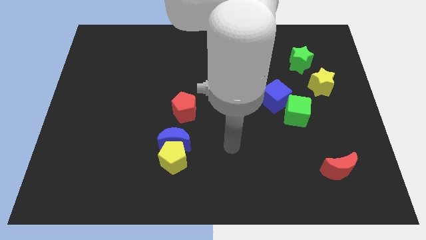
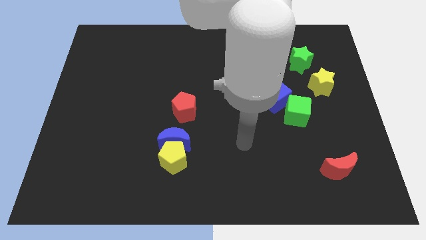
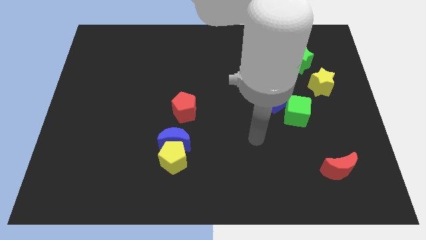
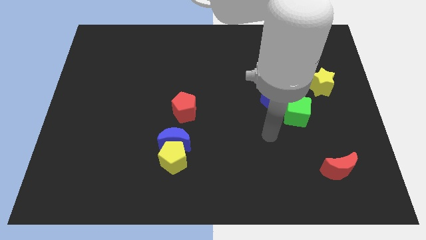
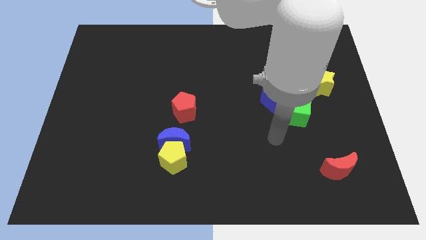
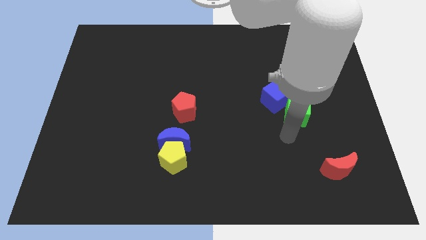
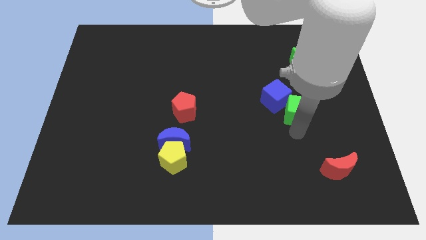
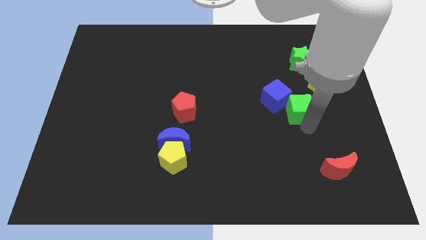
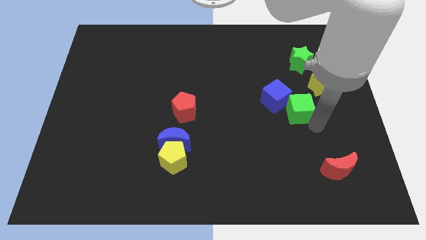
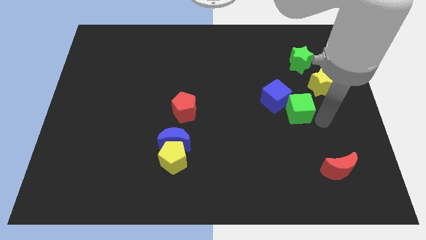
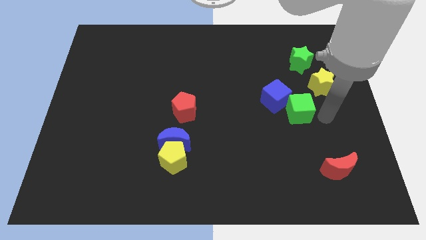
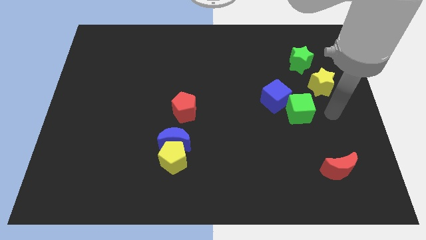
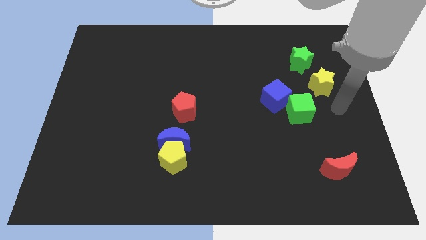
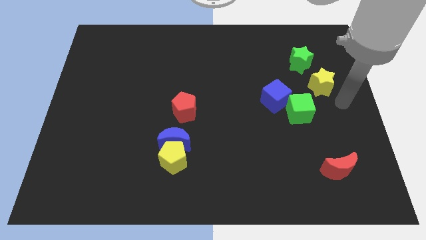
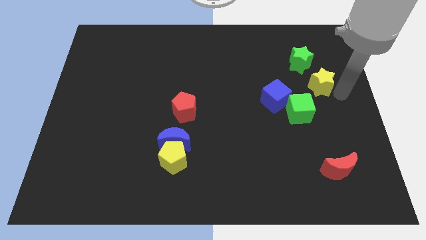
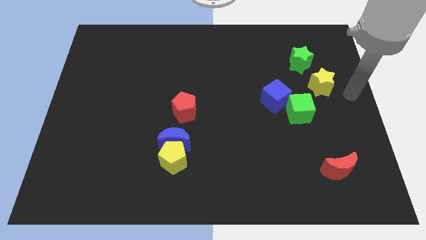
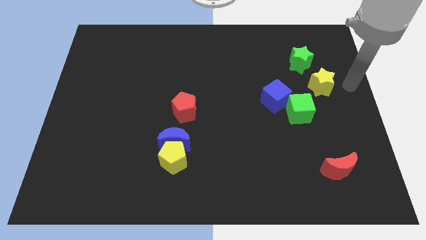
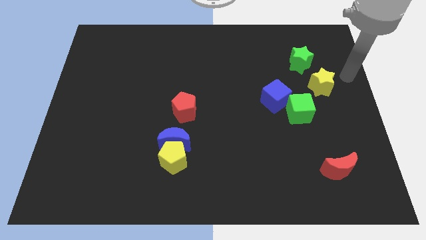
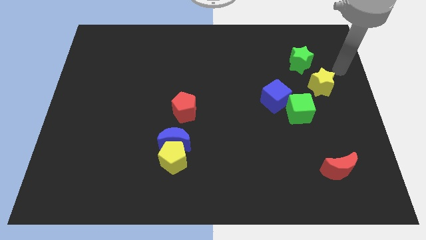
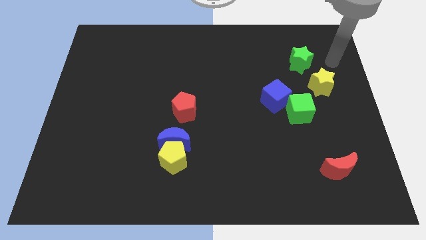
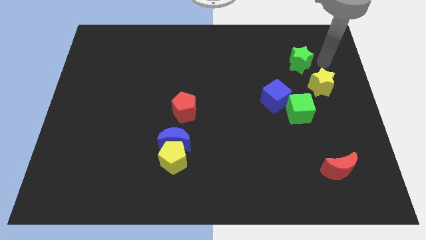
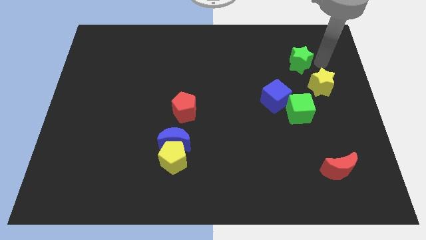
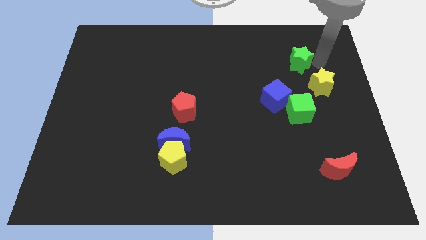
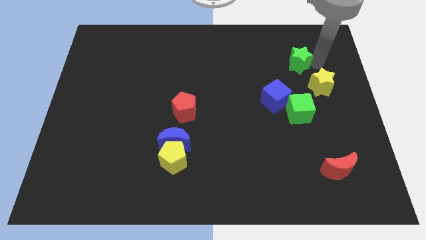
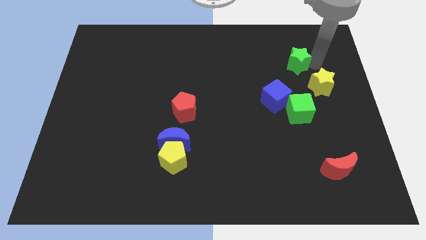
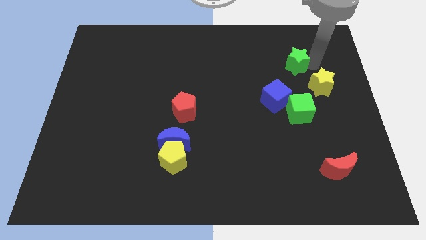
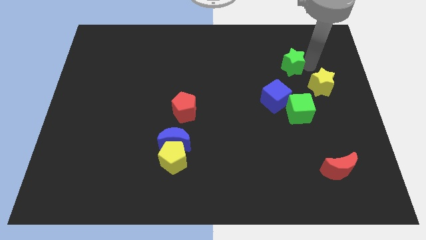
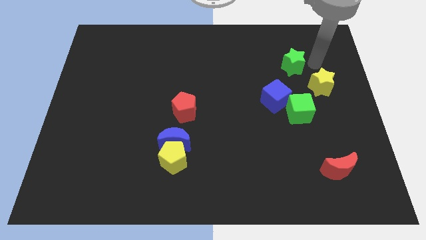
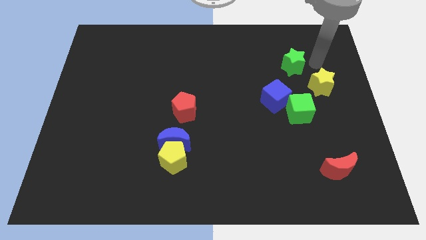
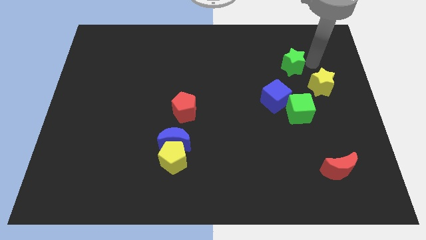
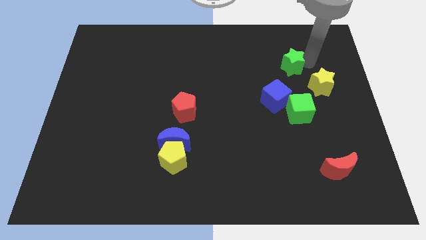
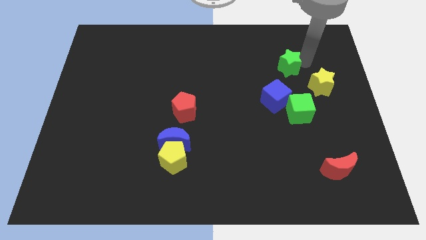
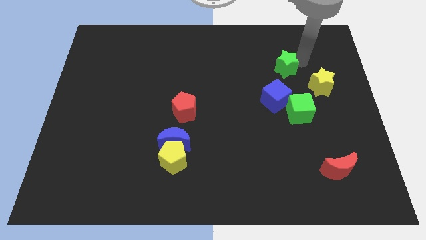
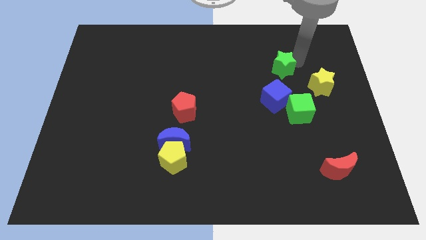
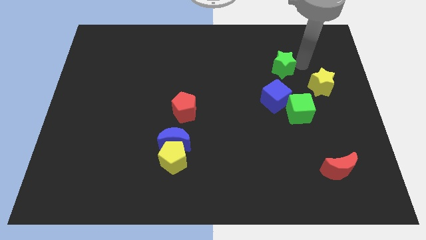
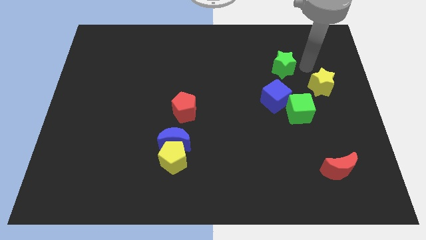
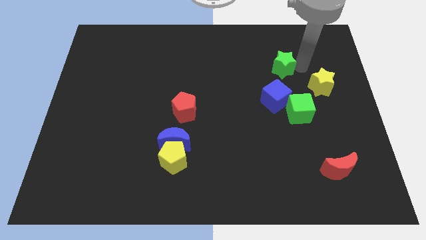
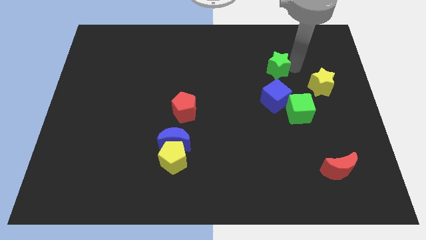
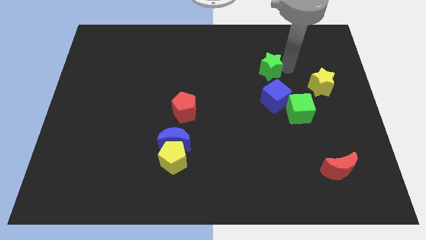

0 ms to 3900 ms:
push the green star left somewhat

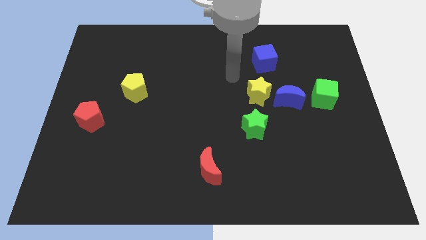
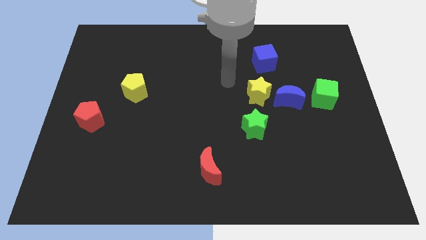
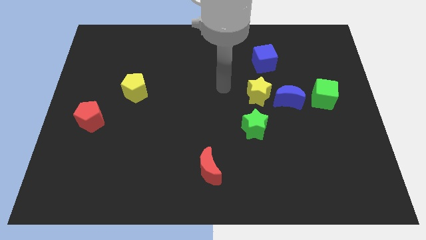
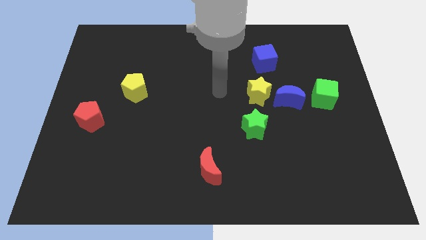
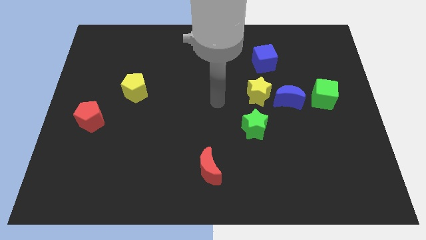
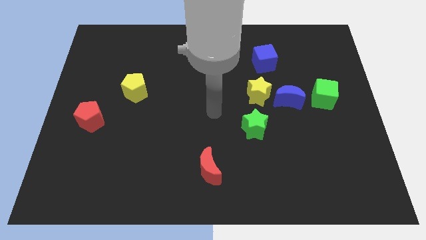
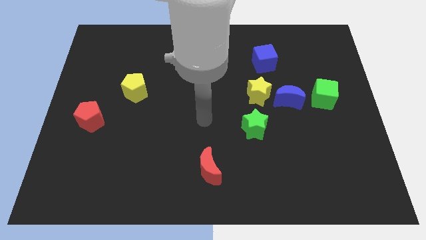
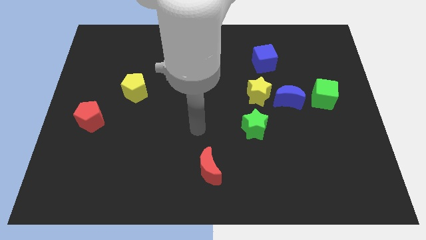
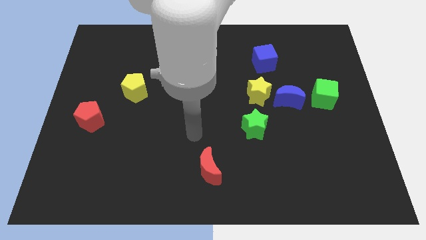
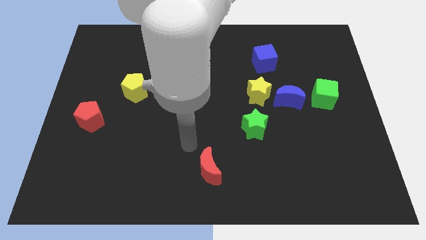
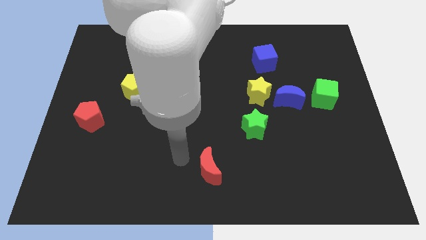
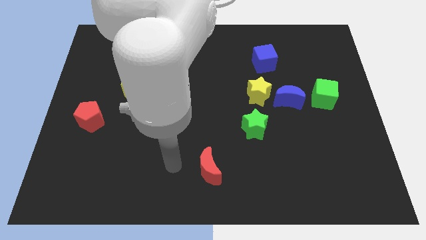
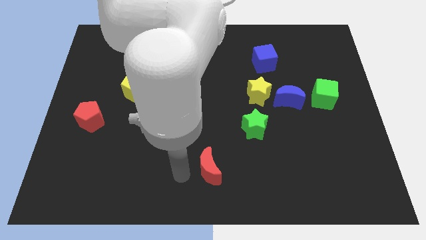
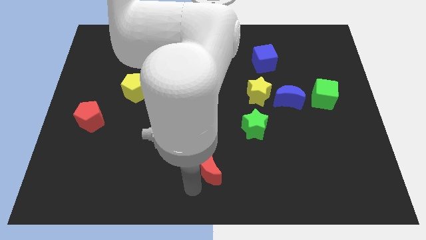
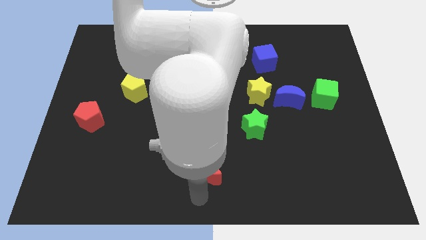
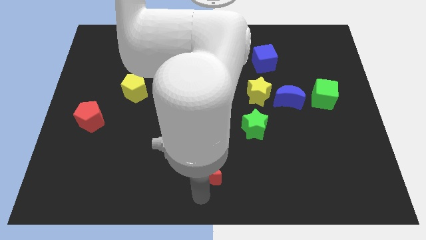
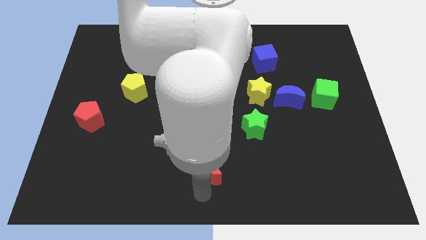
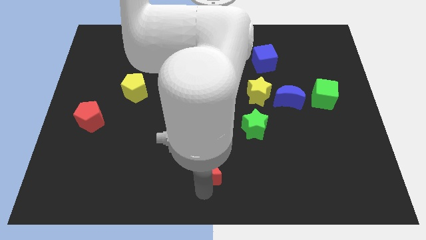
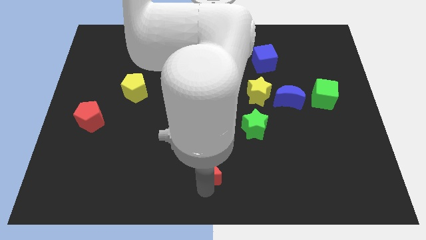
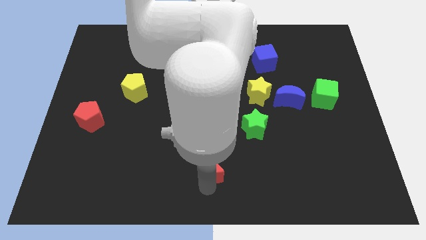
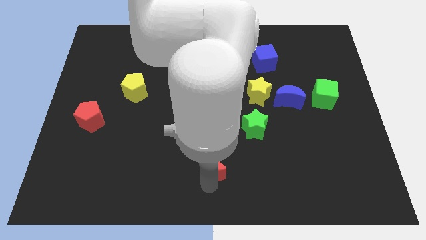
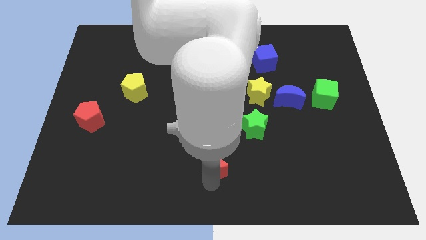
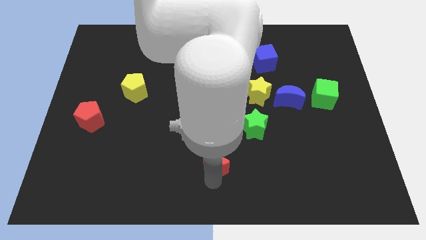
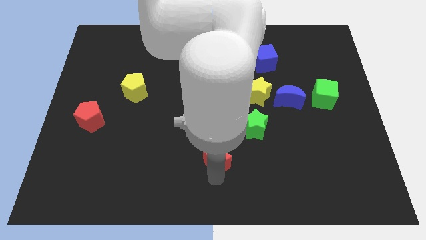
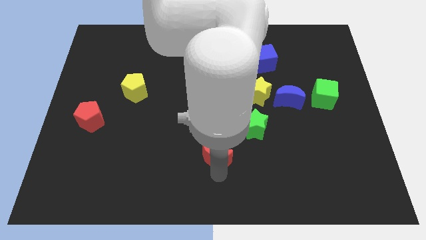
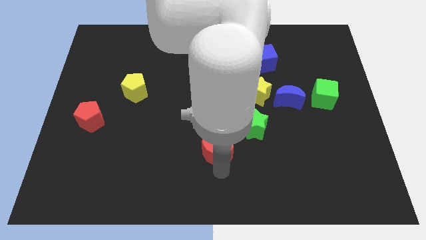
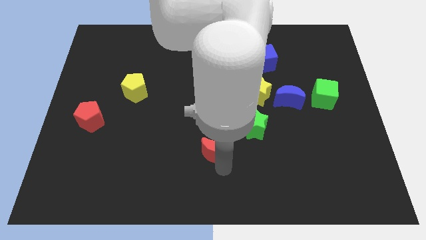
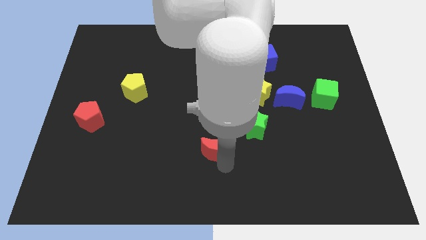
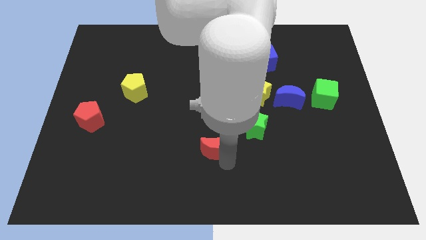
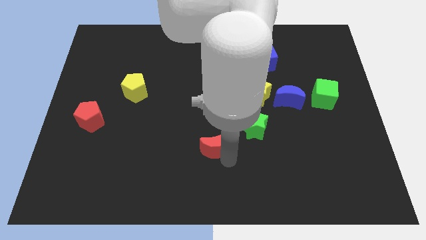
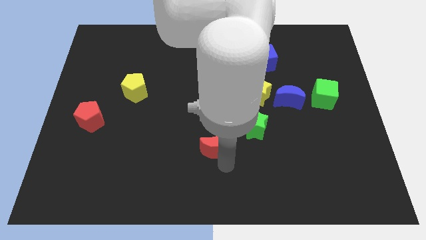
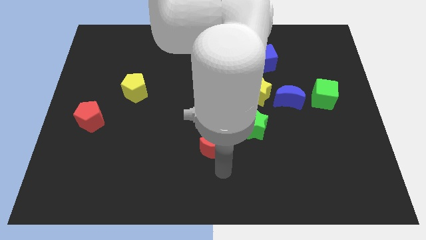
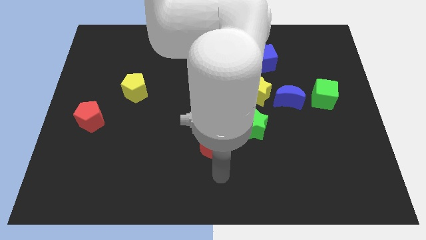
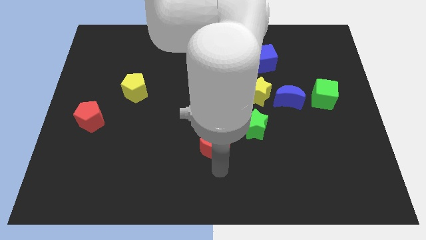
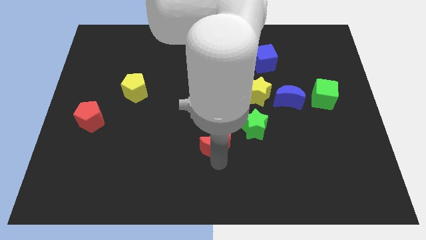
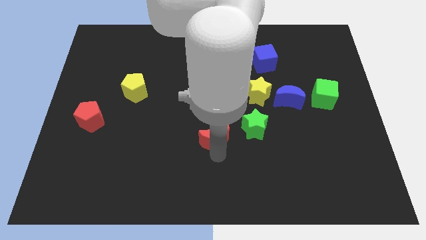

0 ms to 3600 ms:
slightly slide the red moon upwards

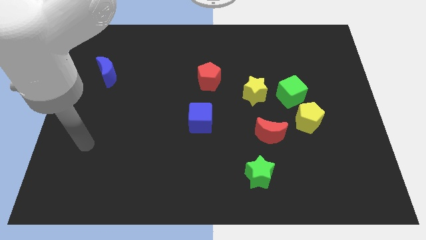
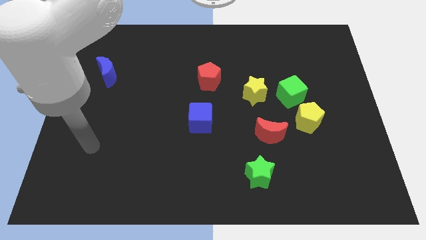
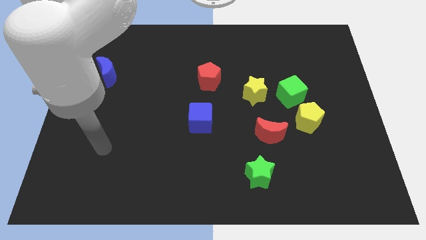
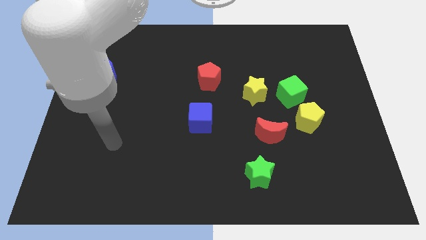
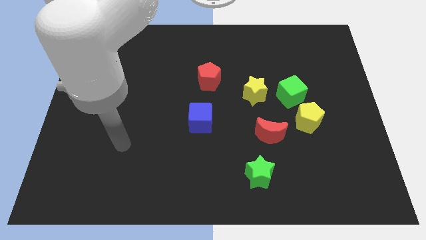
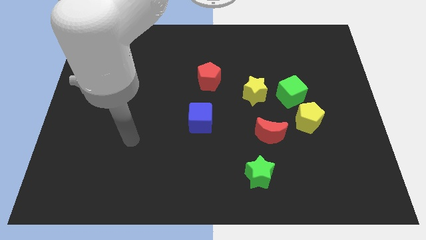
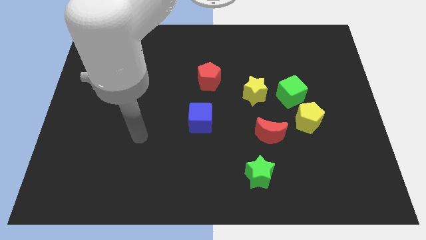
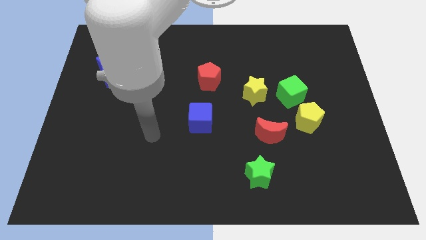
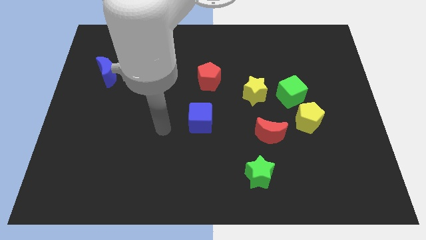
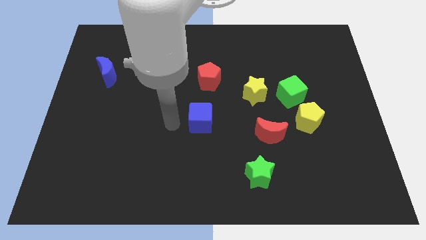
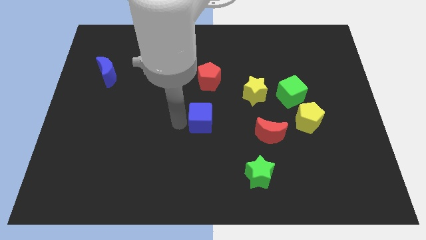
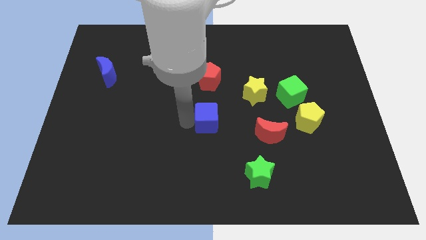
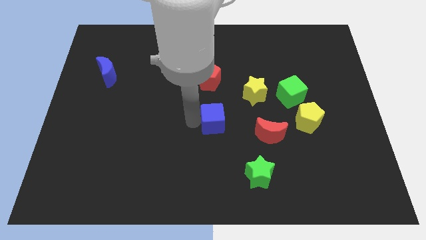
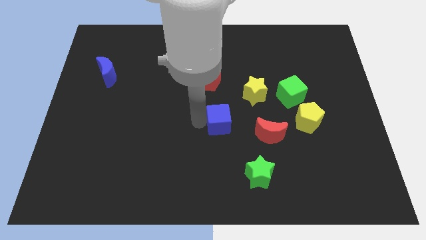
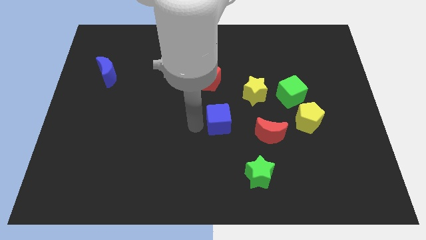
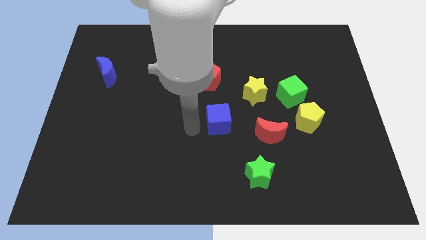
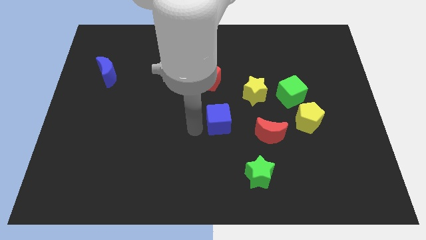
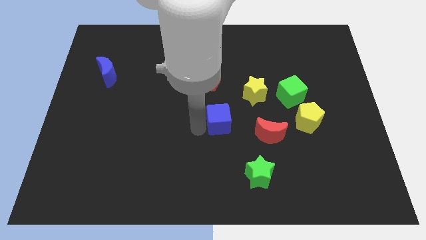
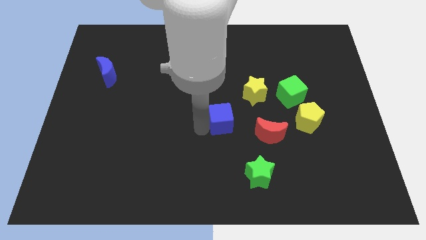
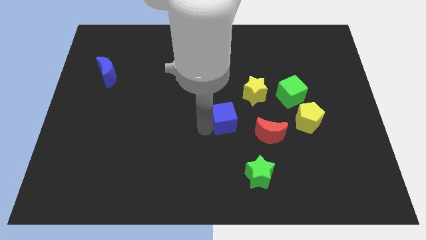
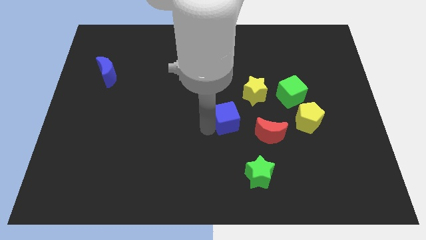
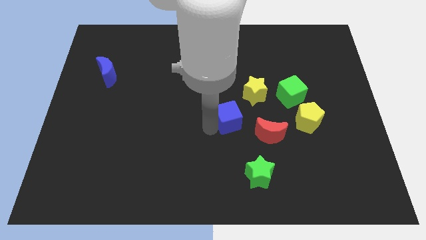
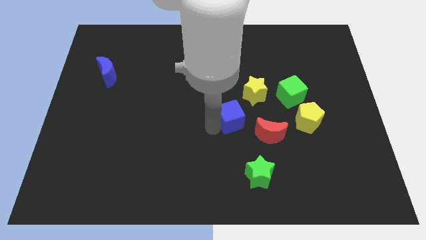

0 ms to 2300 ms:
move the blue cube right a little bit
